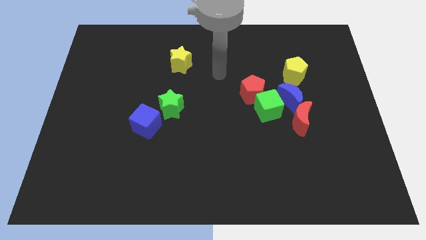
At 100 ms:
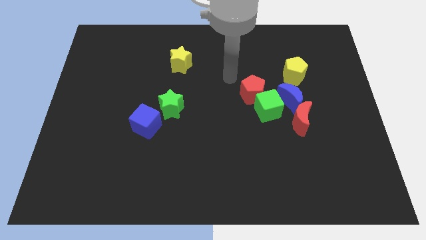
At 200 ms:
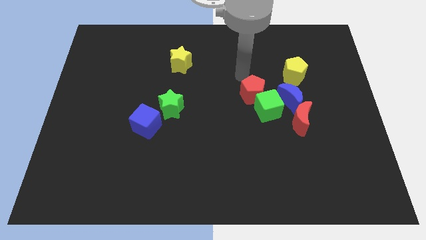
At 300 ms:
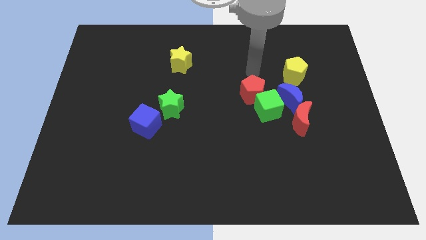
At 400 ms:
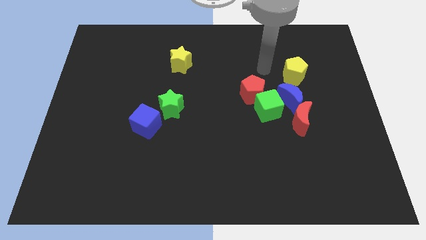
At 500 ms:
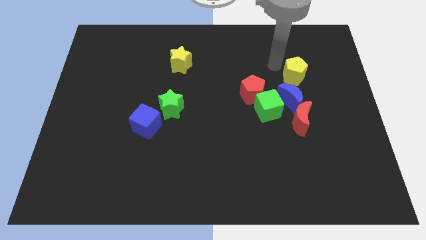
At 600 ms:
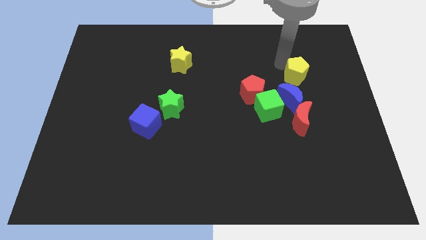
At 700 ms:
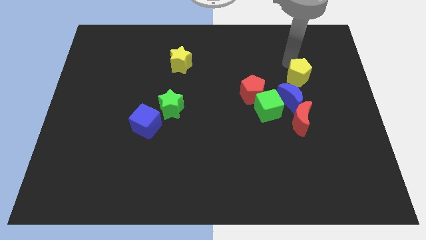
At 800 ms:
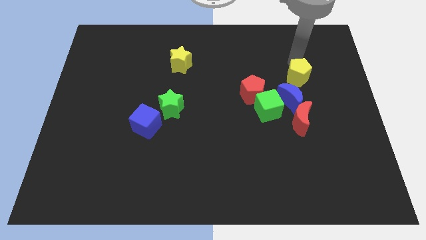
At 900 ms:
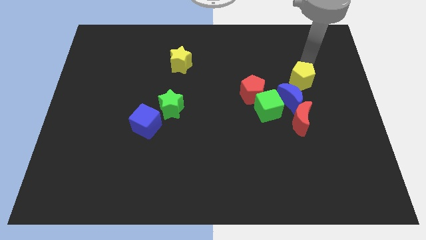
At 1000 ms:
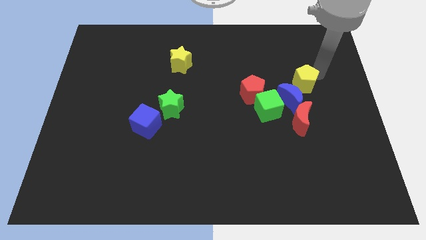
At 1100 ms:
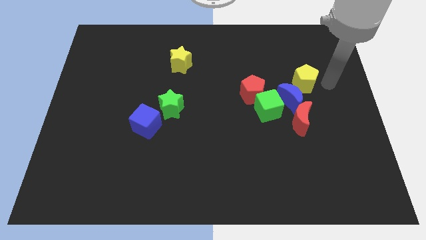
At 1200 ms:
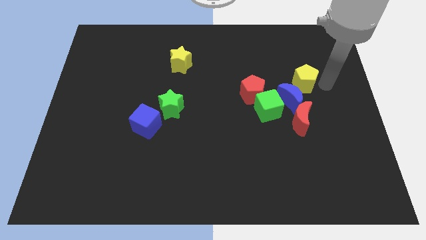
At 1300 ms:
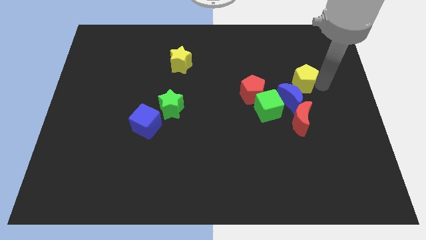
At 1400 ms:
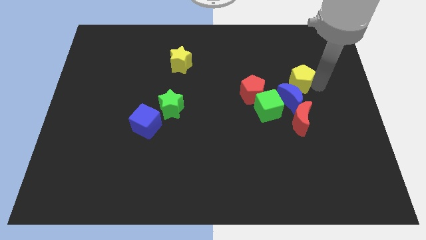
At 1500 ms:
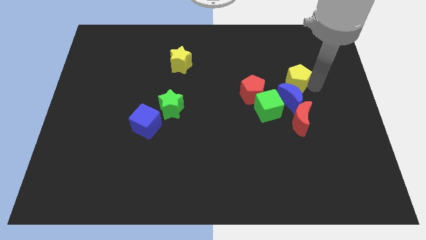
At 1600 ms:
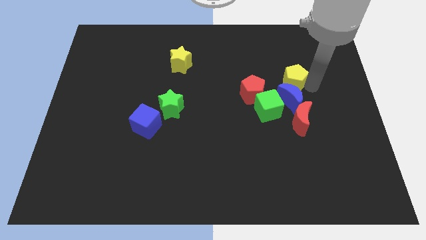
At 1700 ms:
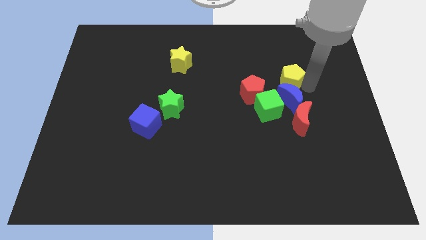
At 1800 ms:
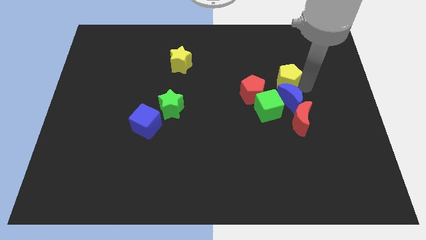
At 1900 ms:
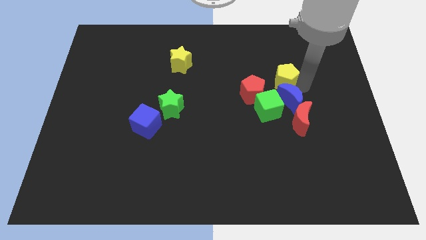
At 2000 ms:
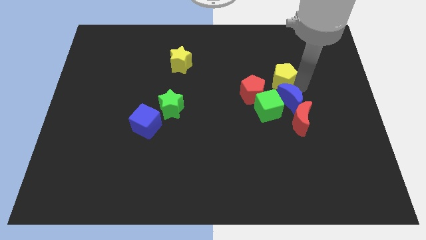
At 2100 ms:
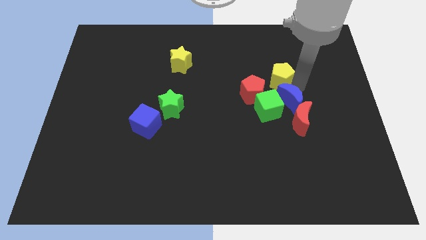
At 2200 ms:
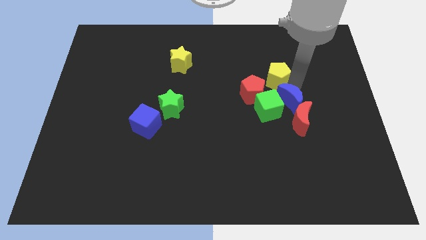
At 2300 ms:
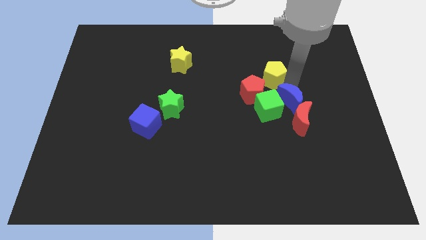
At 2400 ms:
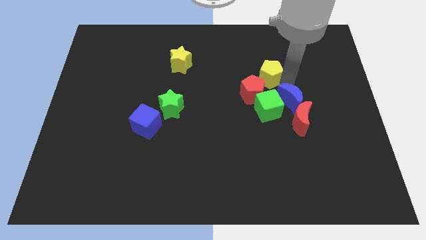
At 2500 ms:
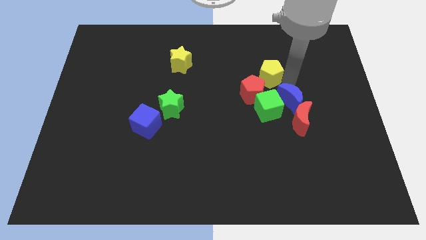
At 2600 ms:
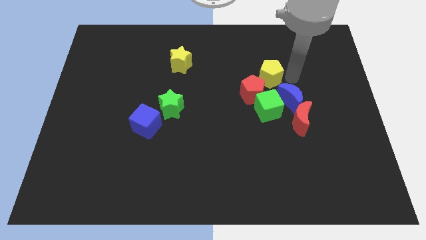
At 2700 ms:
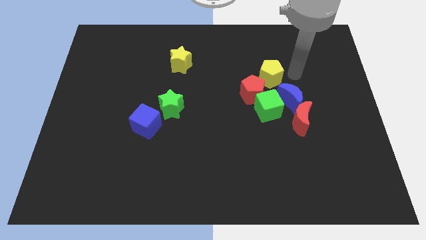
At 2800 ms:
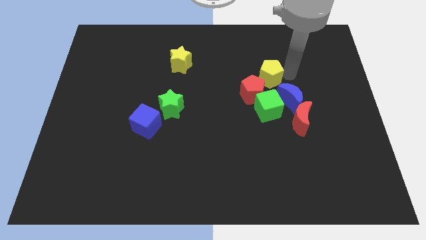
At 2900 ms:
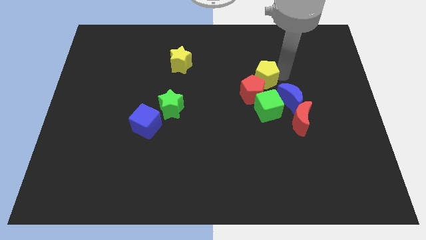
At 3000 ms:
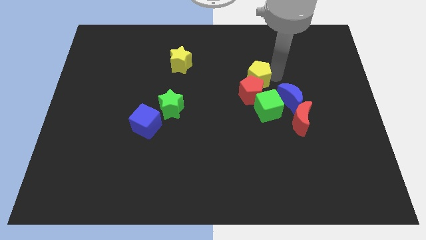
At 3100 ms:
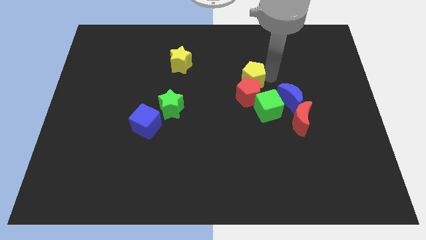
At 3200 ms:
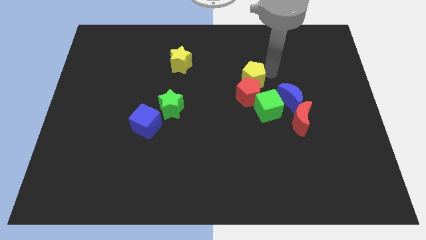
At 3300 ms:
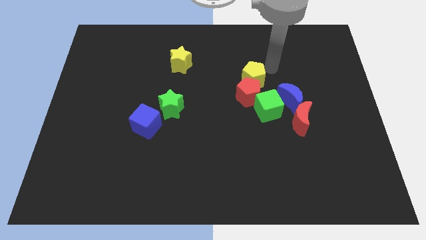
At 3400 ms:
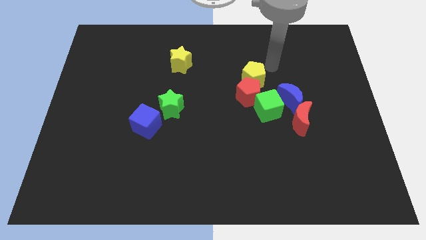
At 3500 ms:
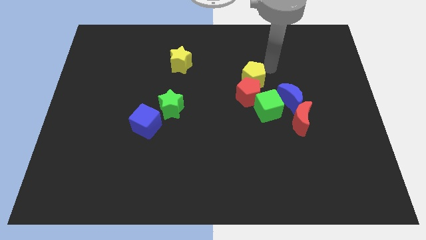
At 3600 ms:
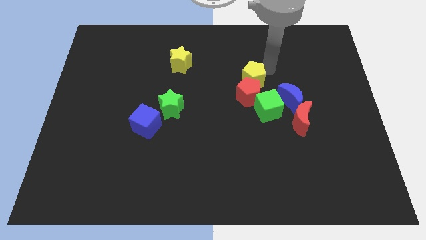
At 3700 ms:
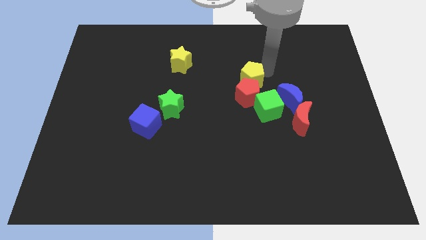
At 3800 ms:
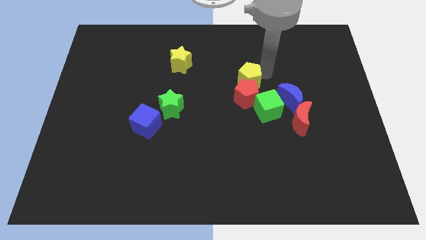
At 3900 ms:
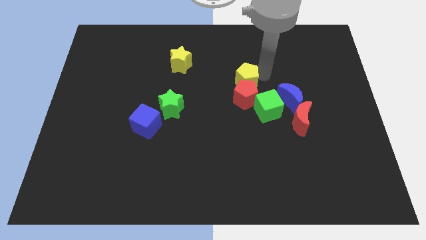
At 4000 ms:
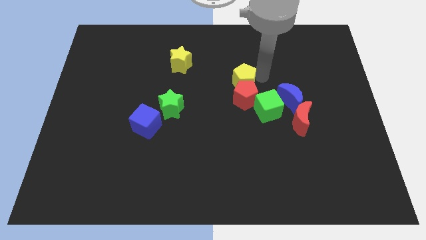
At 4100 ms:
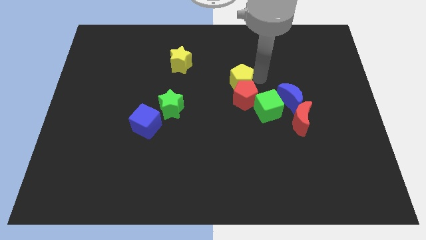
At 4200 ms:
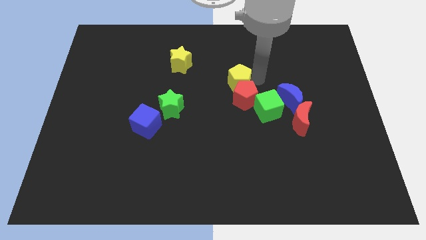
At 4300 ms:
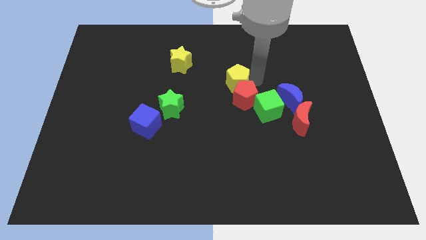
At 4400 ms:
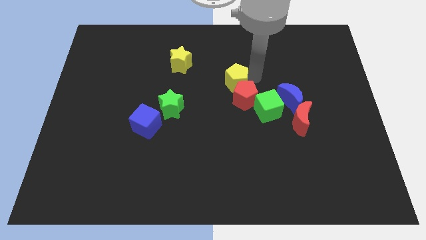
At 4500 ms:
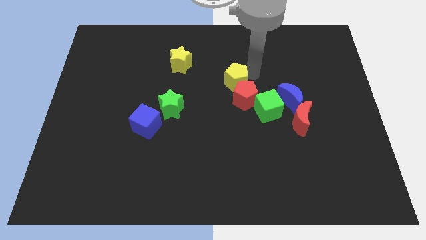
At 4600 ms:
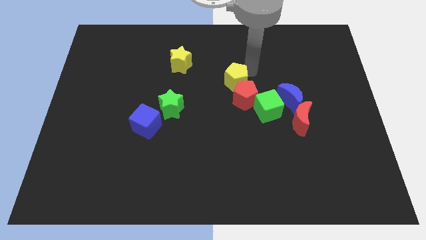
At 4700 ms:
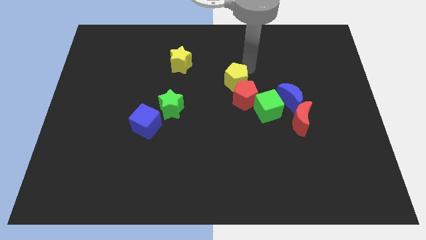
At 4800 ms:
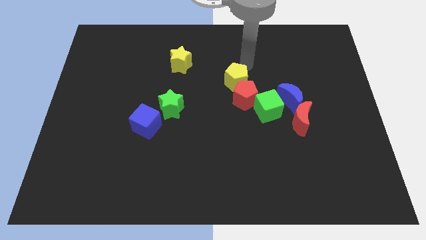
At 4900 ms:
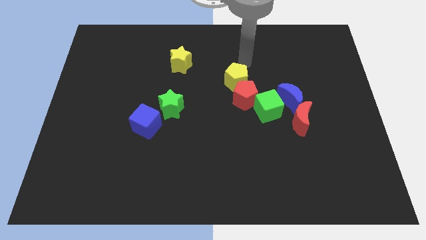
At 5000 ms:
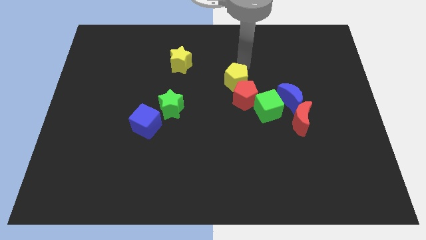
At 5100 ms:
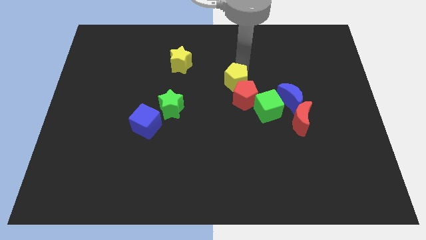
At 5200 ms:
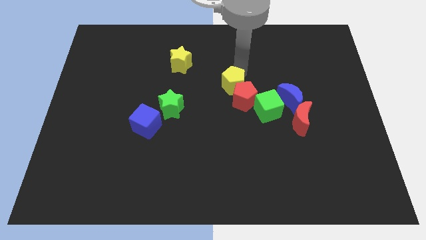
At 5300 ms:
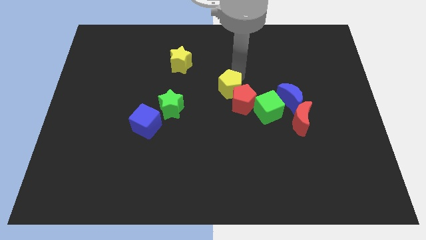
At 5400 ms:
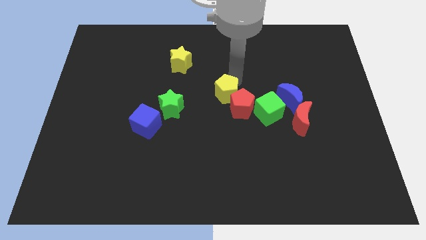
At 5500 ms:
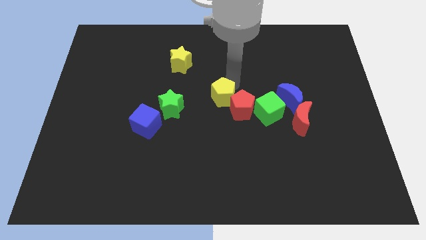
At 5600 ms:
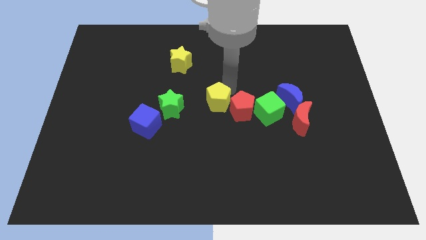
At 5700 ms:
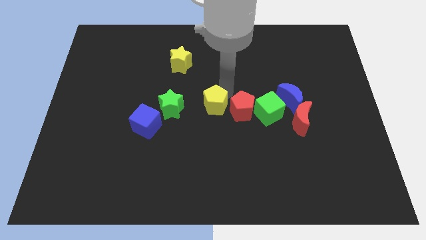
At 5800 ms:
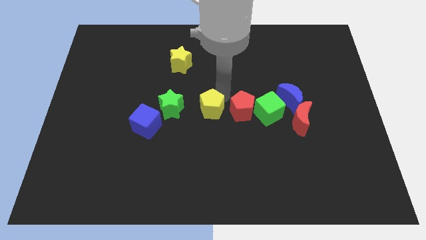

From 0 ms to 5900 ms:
slide the yellow pentagon down and left

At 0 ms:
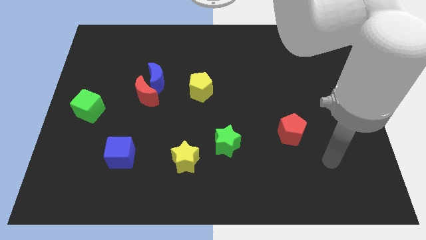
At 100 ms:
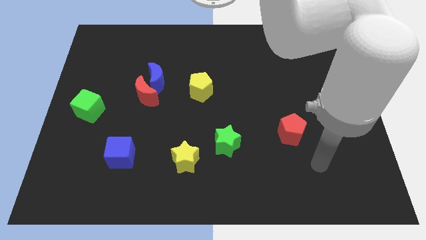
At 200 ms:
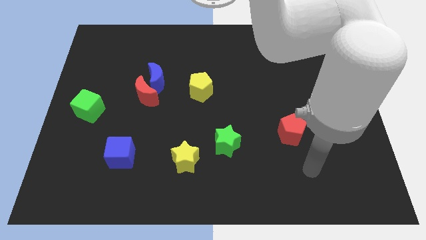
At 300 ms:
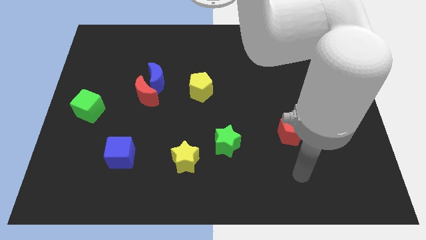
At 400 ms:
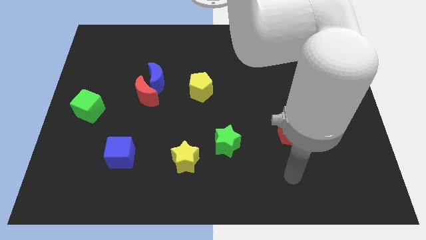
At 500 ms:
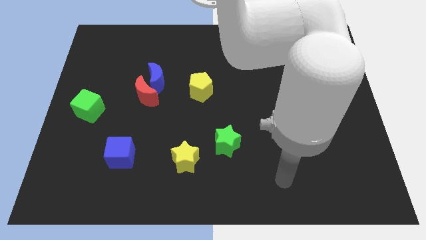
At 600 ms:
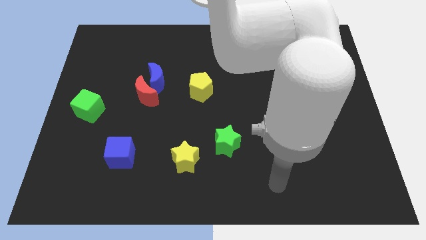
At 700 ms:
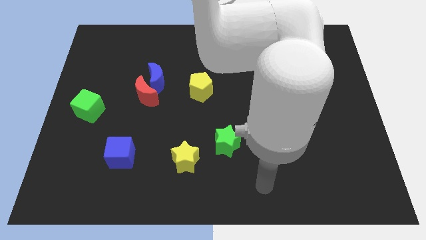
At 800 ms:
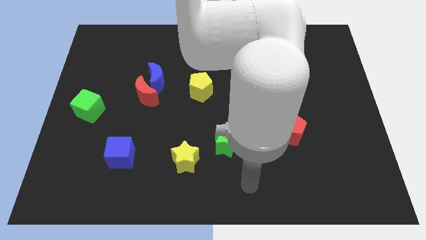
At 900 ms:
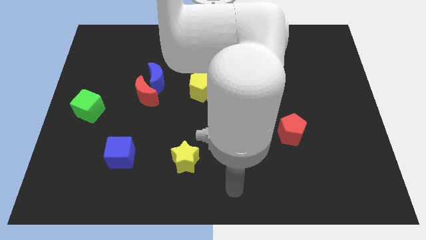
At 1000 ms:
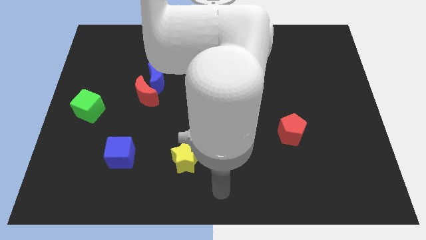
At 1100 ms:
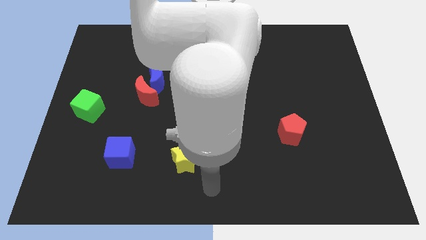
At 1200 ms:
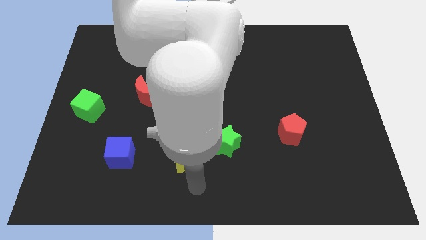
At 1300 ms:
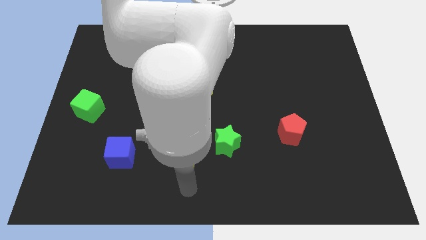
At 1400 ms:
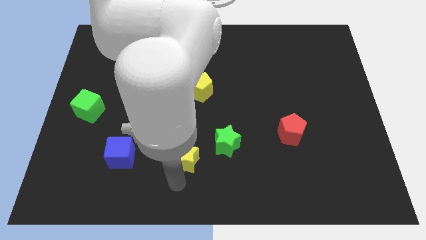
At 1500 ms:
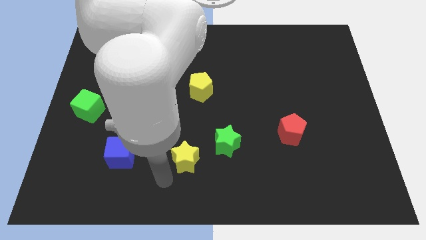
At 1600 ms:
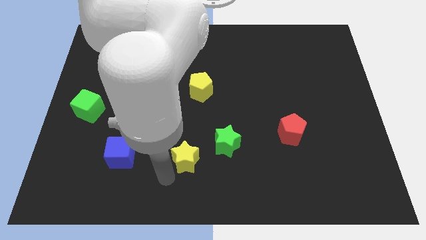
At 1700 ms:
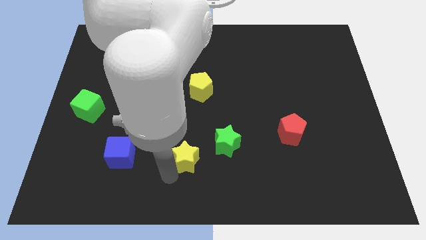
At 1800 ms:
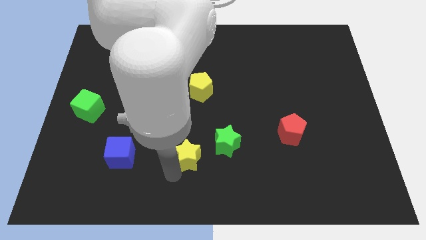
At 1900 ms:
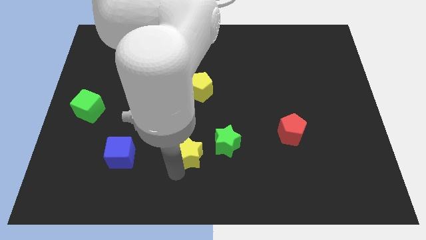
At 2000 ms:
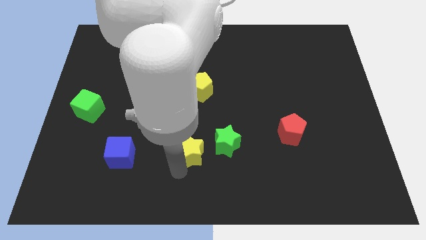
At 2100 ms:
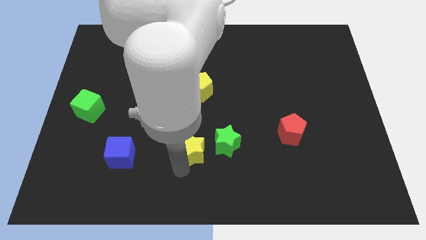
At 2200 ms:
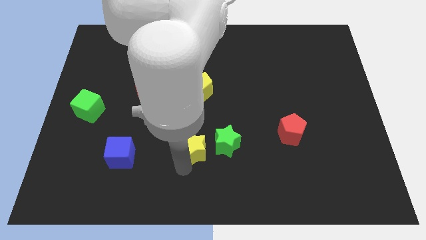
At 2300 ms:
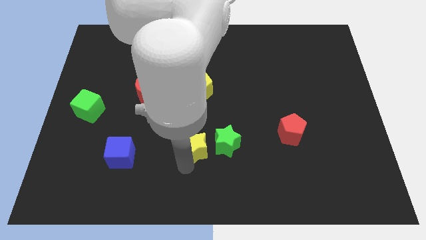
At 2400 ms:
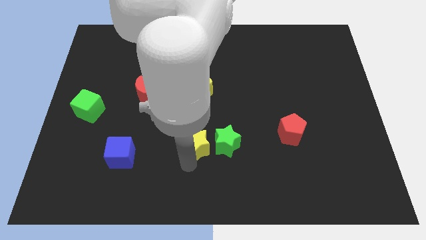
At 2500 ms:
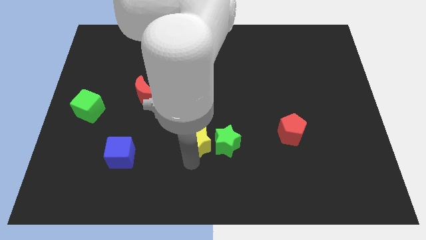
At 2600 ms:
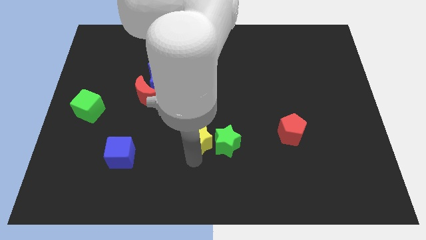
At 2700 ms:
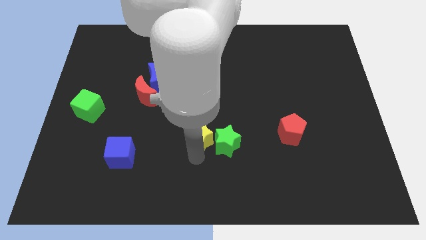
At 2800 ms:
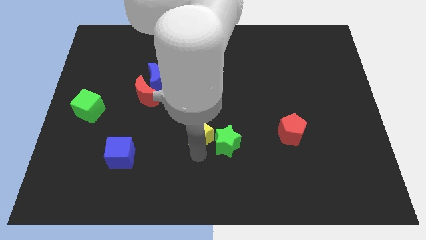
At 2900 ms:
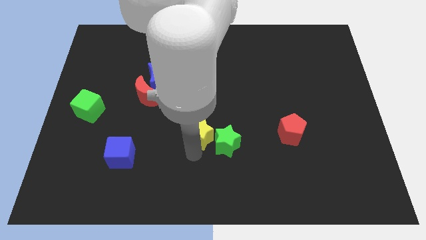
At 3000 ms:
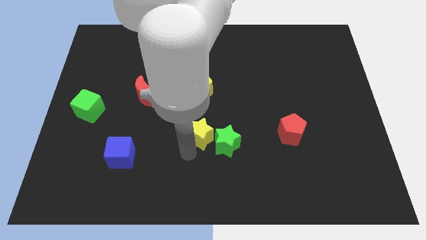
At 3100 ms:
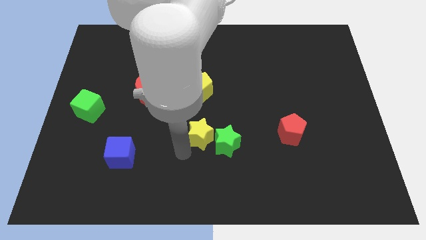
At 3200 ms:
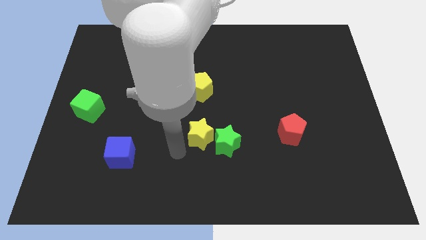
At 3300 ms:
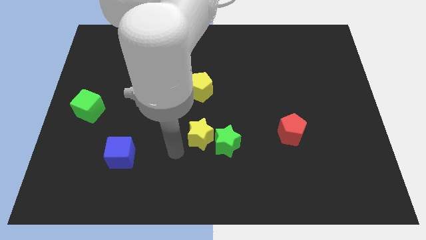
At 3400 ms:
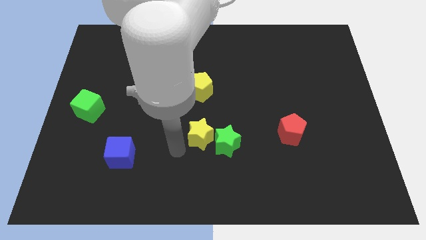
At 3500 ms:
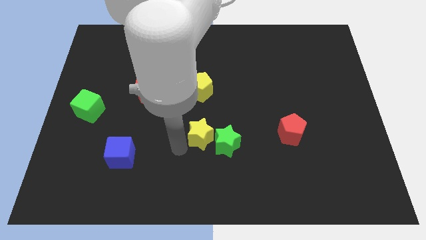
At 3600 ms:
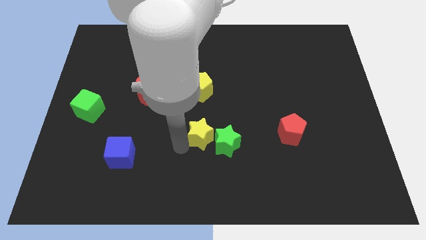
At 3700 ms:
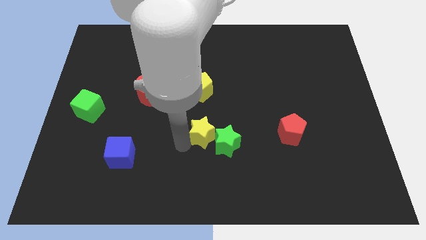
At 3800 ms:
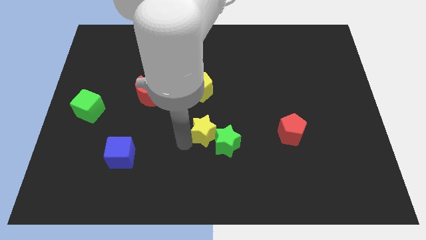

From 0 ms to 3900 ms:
slide the yellow star slightly diagonally upwards and to the right
